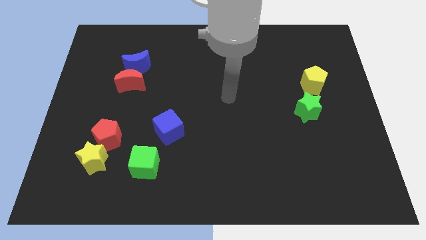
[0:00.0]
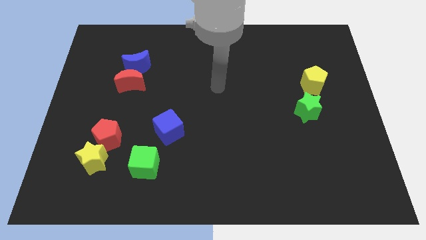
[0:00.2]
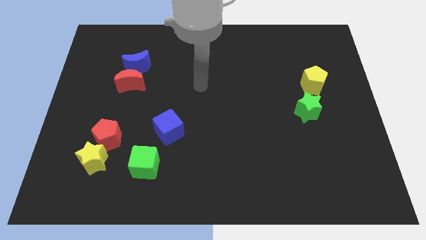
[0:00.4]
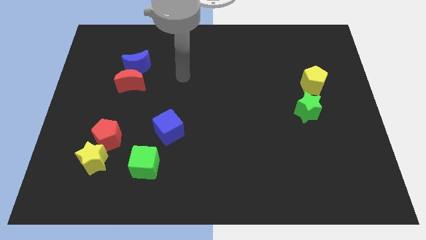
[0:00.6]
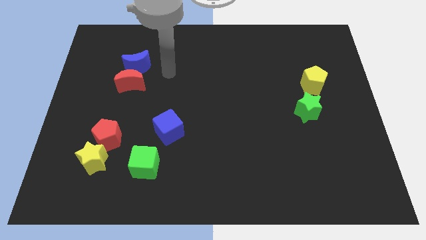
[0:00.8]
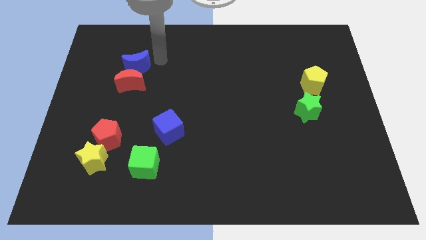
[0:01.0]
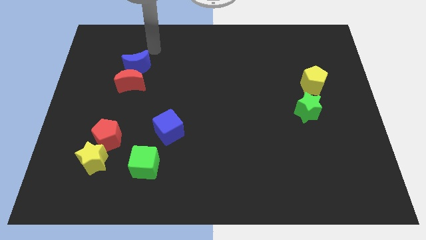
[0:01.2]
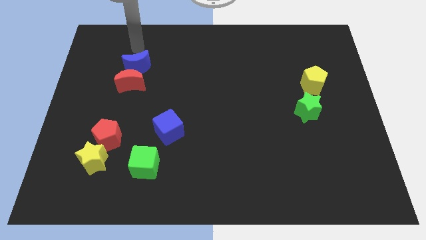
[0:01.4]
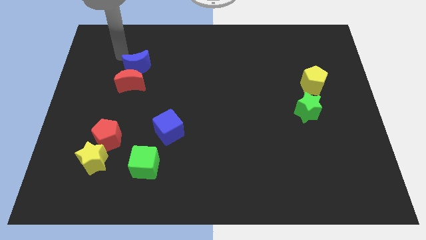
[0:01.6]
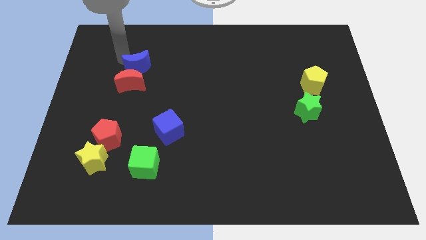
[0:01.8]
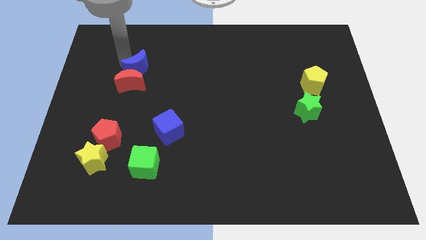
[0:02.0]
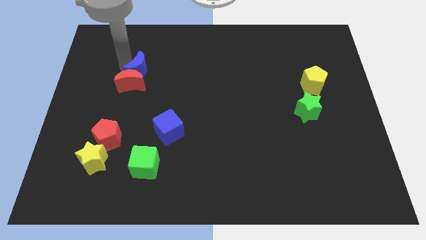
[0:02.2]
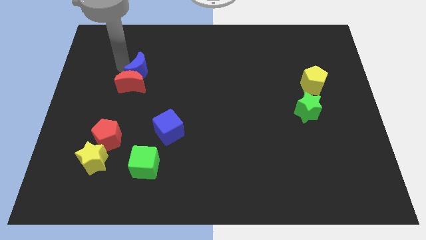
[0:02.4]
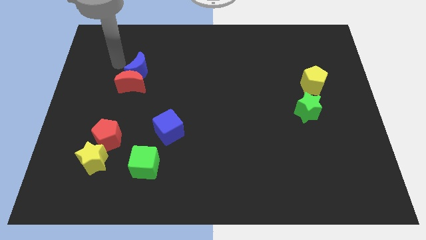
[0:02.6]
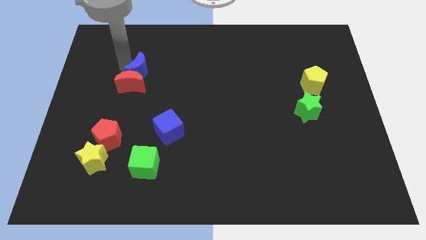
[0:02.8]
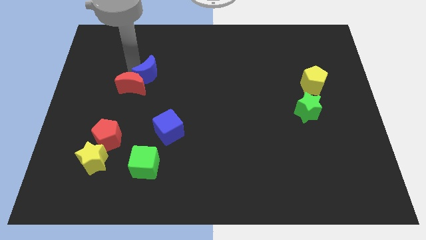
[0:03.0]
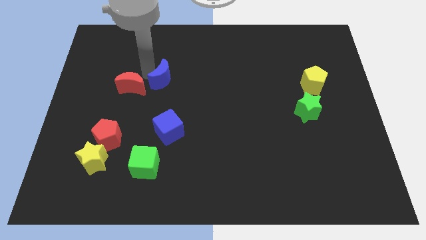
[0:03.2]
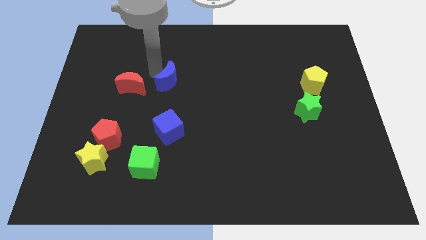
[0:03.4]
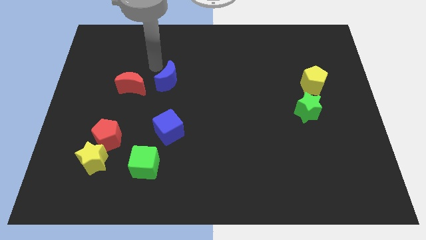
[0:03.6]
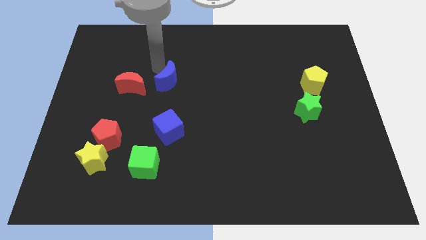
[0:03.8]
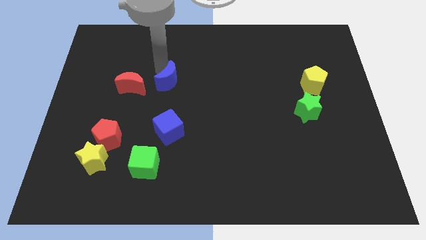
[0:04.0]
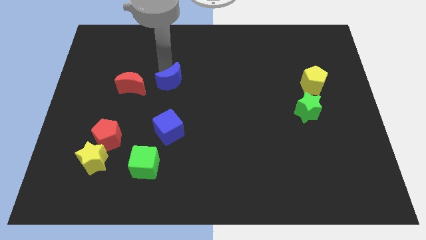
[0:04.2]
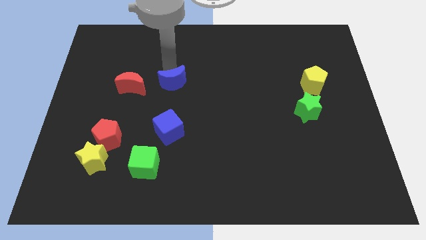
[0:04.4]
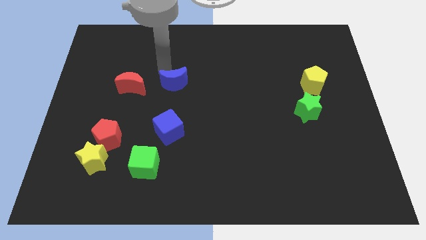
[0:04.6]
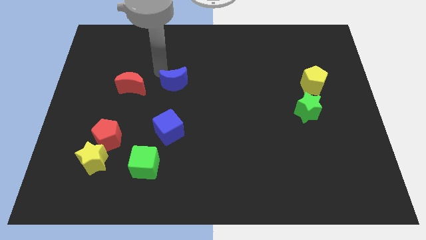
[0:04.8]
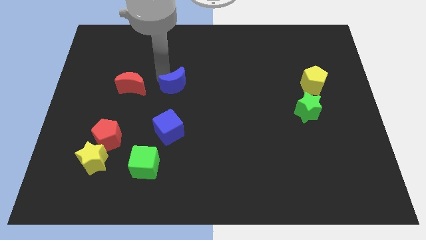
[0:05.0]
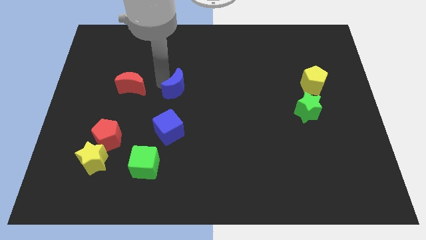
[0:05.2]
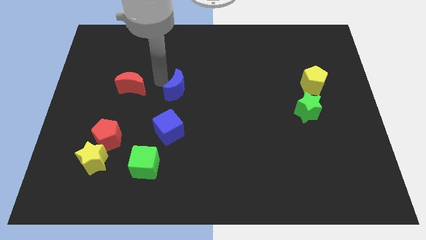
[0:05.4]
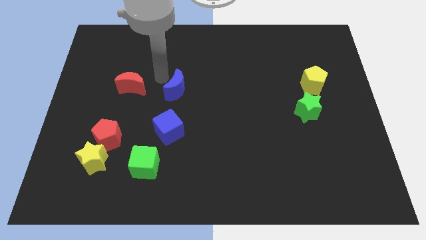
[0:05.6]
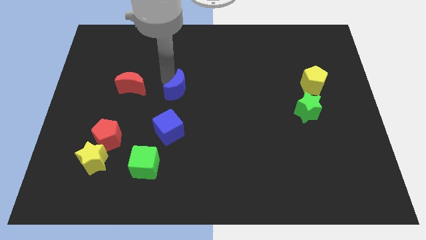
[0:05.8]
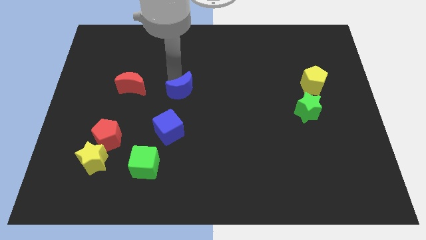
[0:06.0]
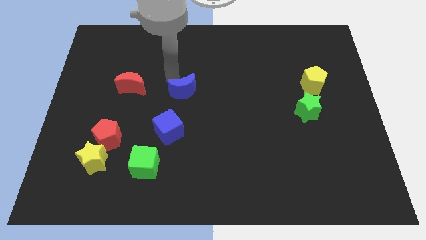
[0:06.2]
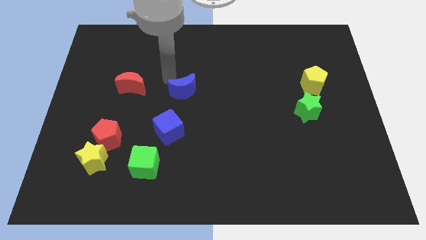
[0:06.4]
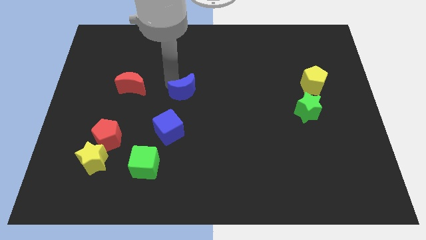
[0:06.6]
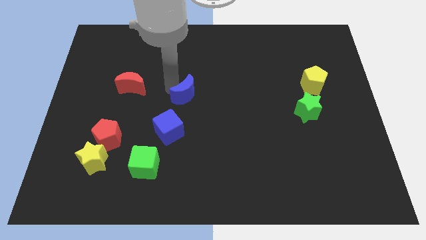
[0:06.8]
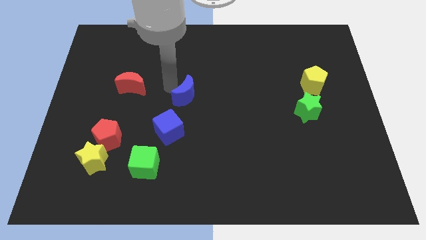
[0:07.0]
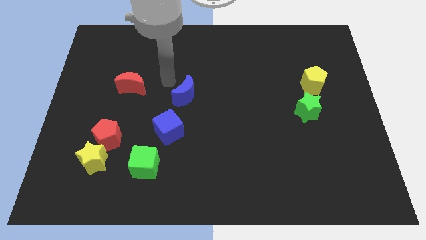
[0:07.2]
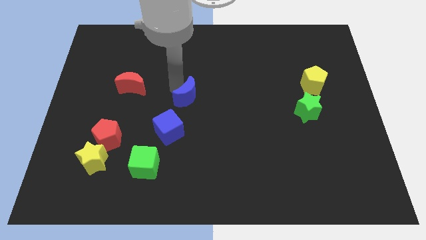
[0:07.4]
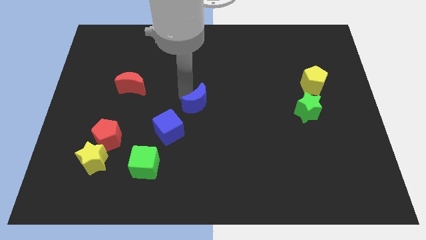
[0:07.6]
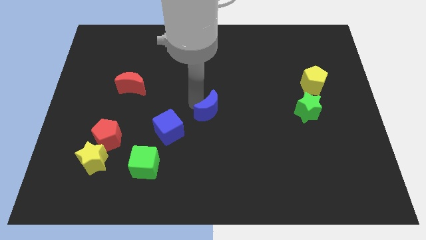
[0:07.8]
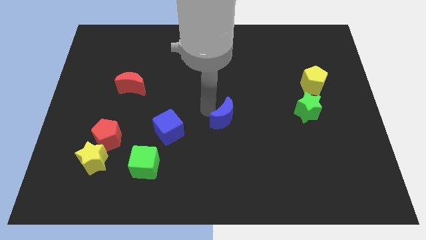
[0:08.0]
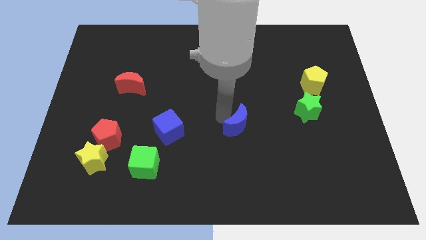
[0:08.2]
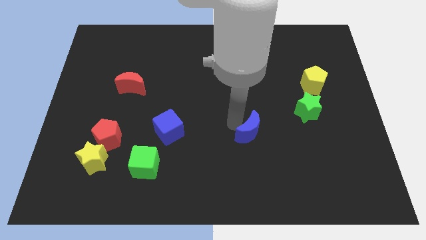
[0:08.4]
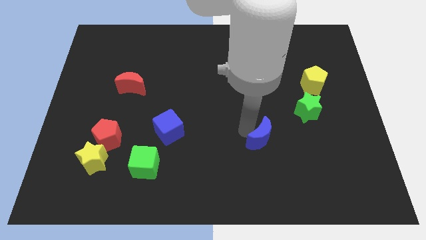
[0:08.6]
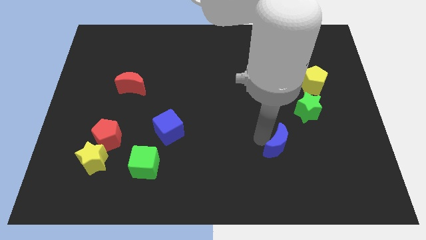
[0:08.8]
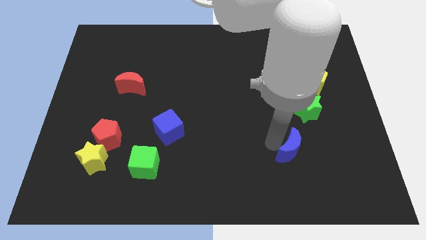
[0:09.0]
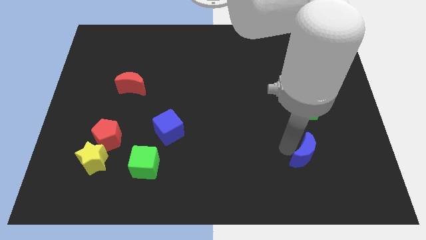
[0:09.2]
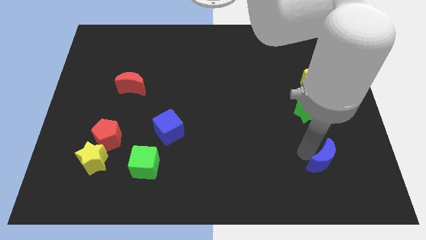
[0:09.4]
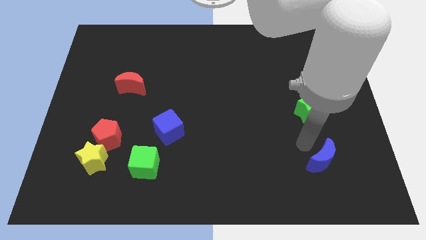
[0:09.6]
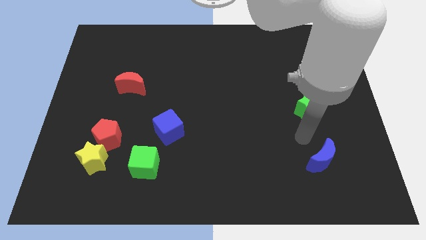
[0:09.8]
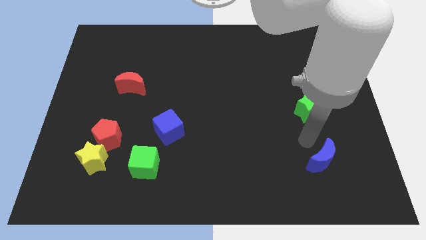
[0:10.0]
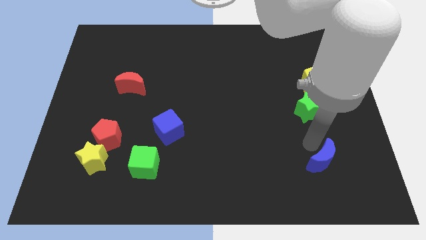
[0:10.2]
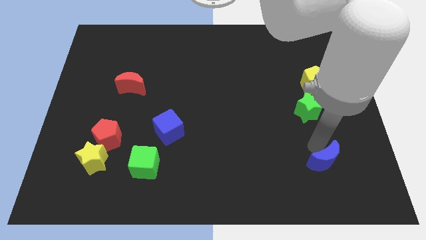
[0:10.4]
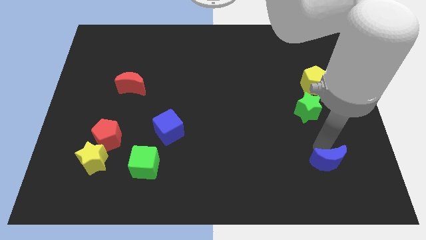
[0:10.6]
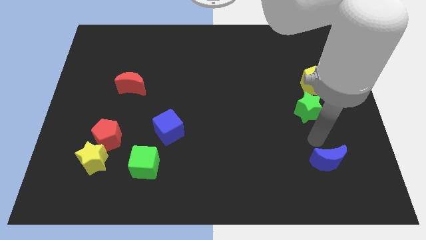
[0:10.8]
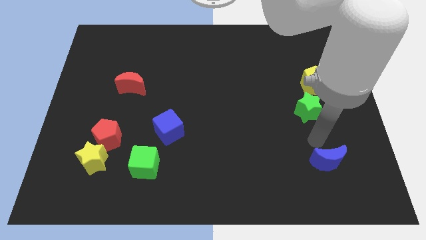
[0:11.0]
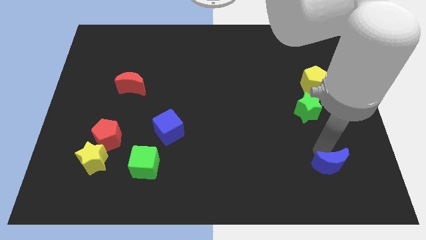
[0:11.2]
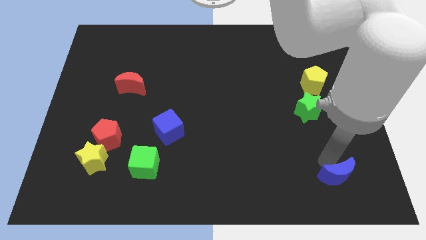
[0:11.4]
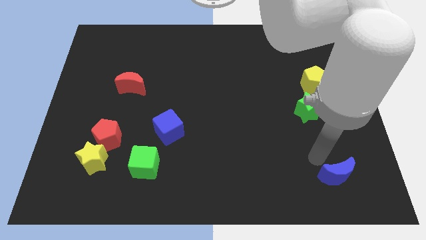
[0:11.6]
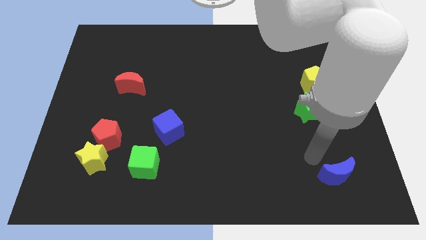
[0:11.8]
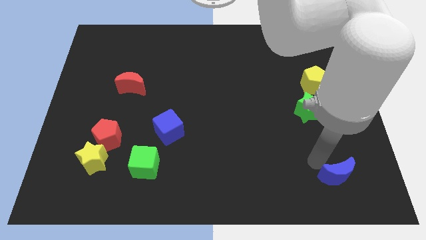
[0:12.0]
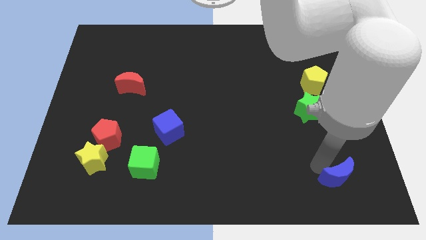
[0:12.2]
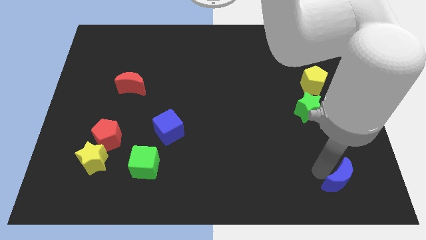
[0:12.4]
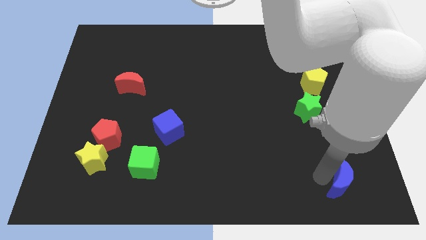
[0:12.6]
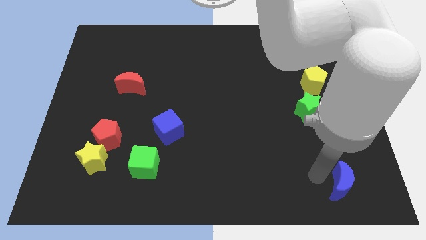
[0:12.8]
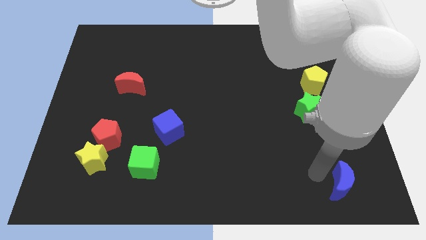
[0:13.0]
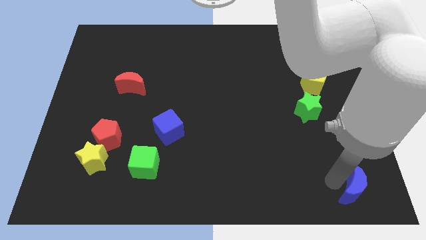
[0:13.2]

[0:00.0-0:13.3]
push the blue moon to the bottom right corner

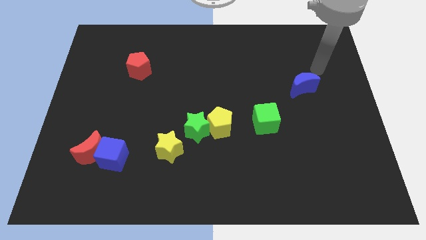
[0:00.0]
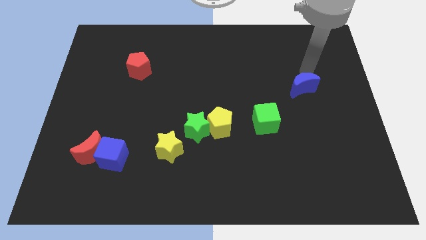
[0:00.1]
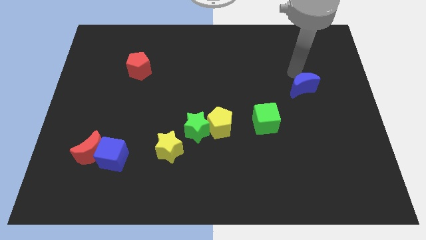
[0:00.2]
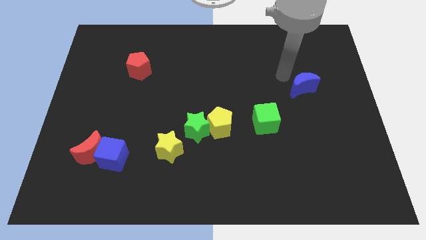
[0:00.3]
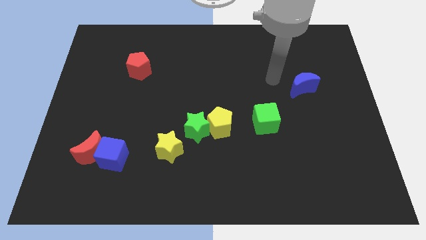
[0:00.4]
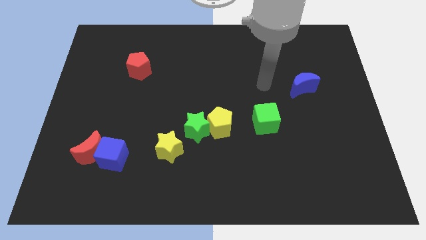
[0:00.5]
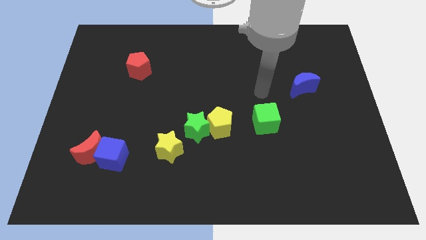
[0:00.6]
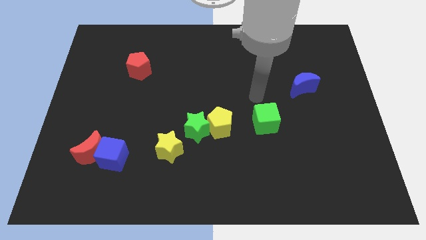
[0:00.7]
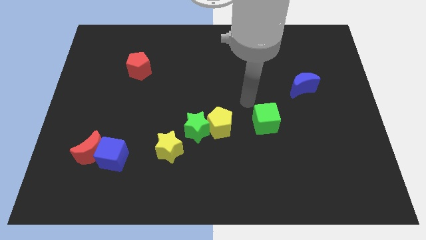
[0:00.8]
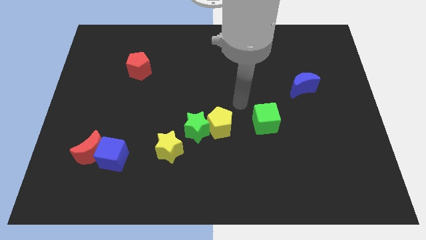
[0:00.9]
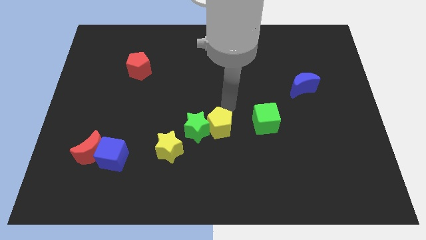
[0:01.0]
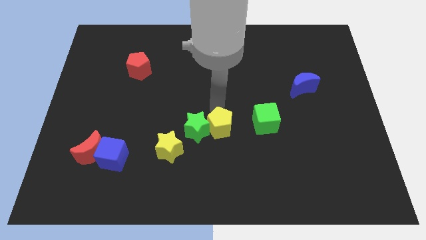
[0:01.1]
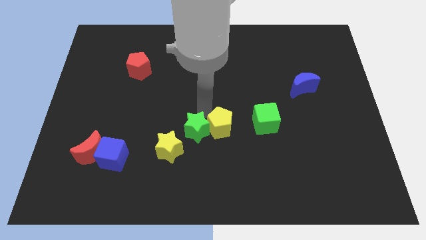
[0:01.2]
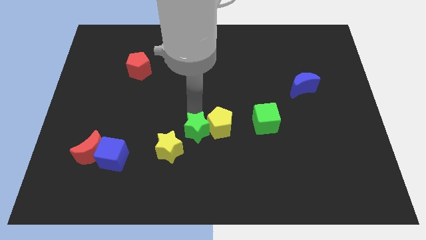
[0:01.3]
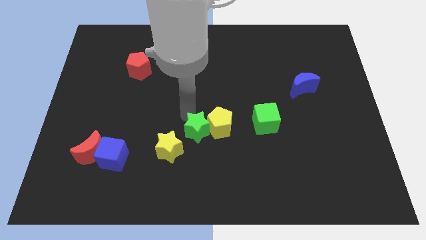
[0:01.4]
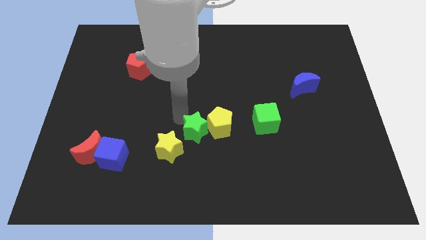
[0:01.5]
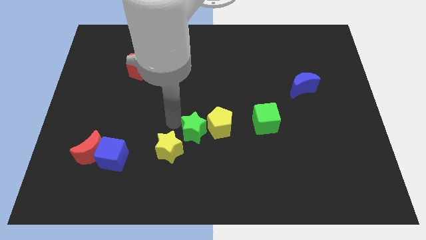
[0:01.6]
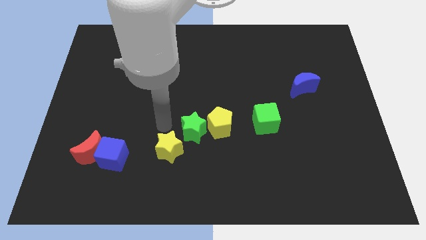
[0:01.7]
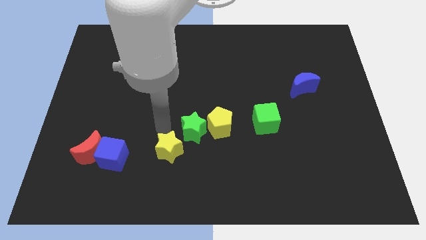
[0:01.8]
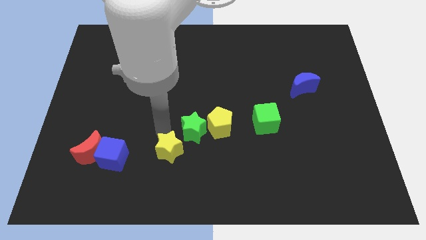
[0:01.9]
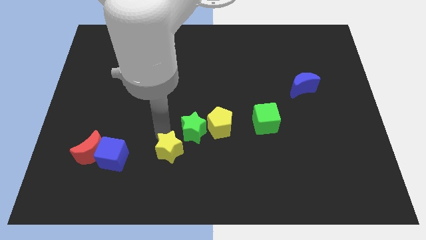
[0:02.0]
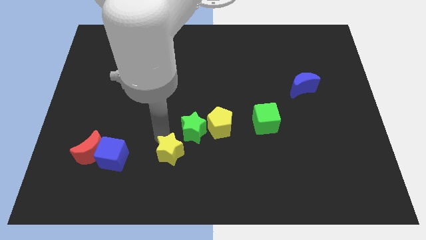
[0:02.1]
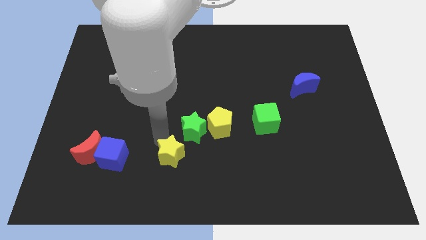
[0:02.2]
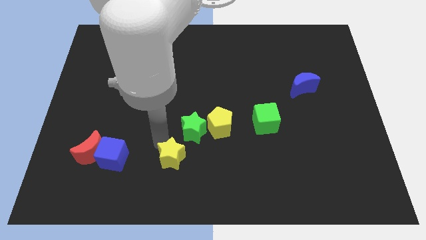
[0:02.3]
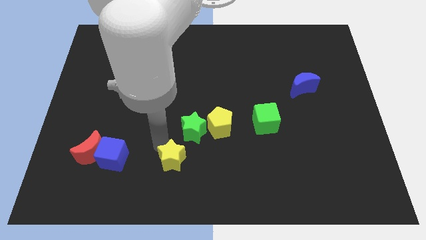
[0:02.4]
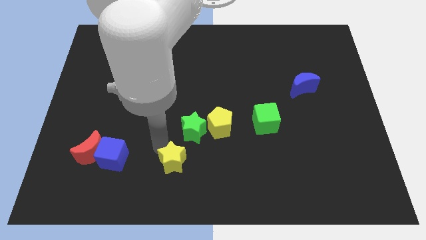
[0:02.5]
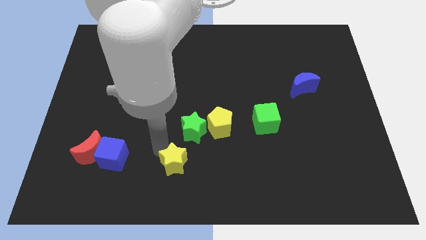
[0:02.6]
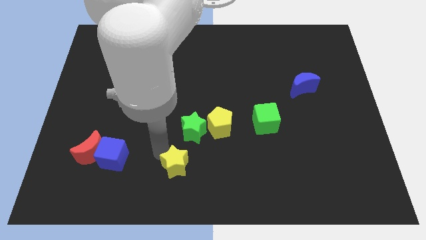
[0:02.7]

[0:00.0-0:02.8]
slide the yellow star to the bottom side
